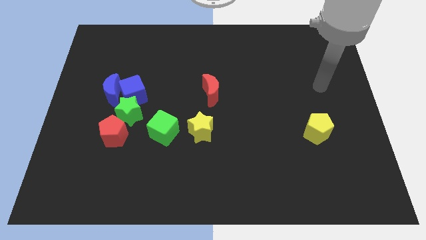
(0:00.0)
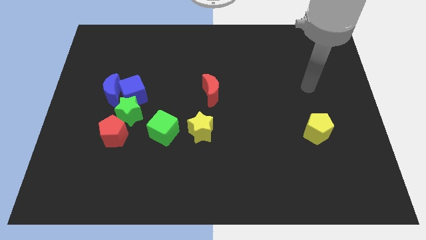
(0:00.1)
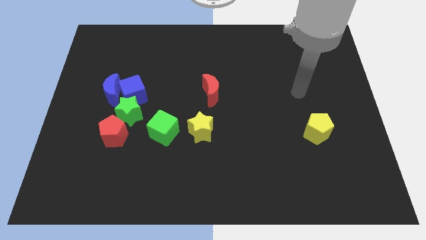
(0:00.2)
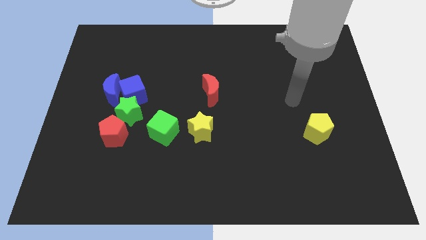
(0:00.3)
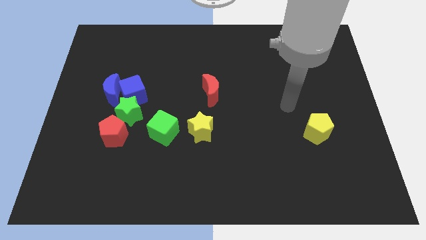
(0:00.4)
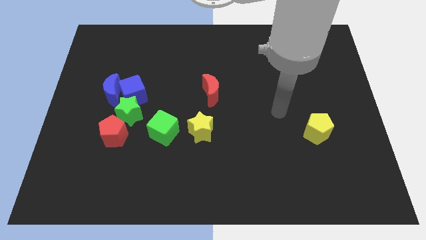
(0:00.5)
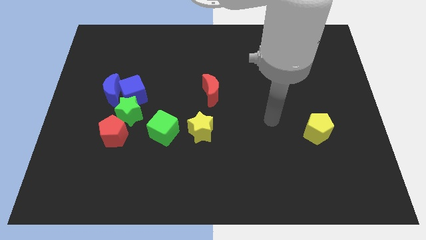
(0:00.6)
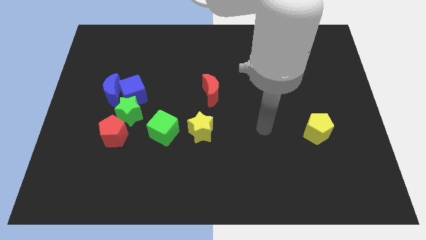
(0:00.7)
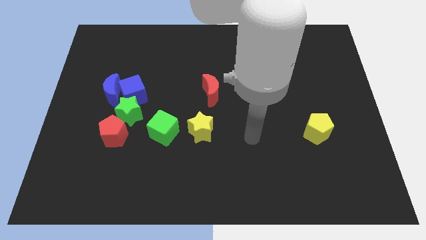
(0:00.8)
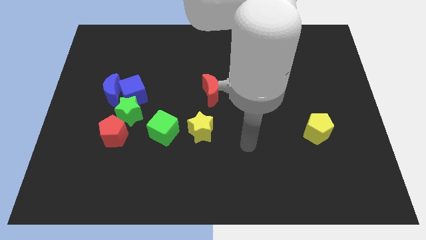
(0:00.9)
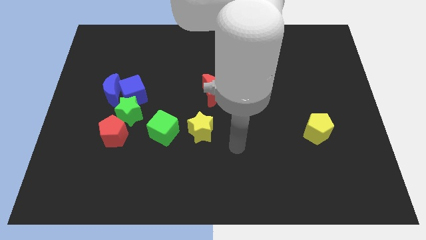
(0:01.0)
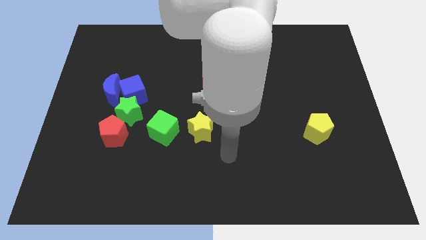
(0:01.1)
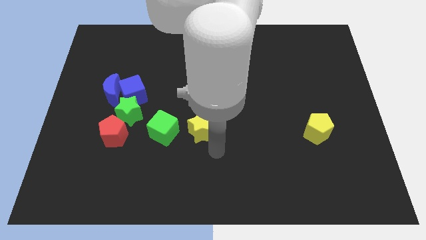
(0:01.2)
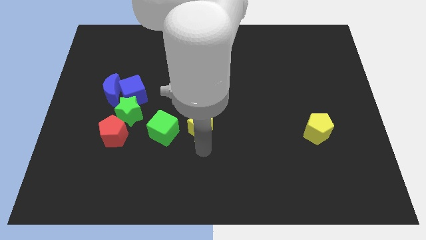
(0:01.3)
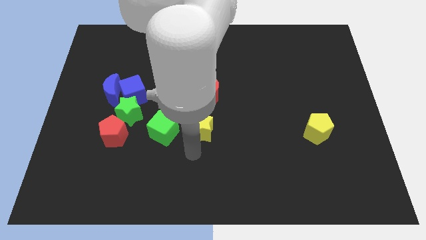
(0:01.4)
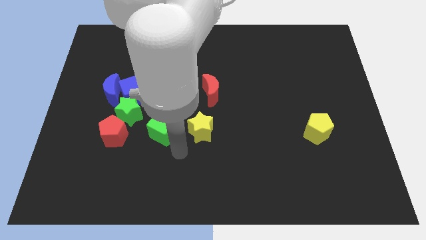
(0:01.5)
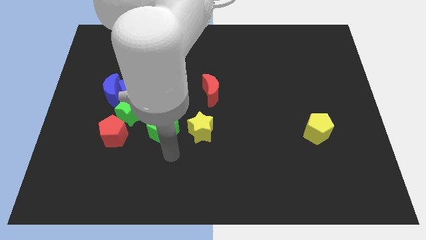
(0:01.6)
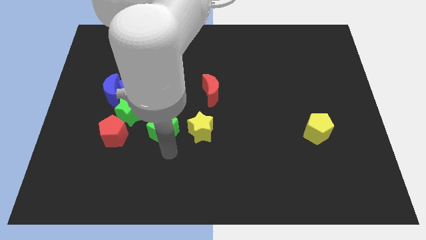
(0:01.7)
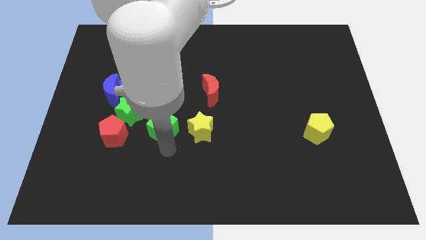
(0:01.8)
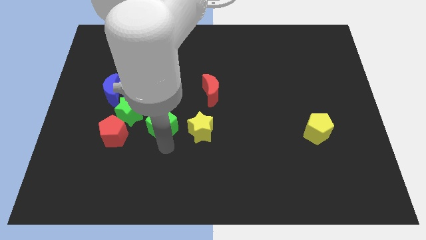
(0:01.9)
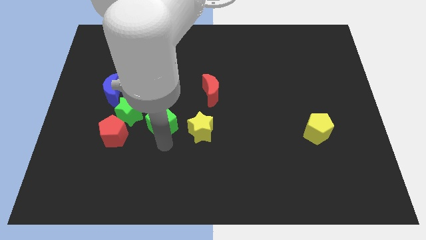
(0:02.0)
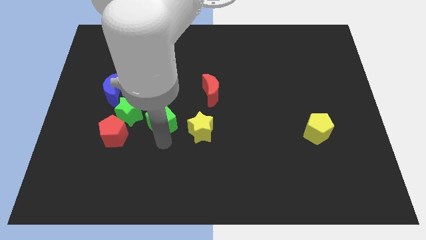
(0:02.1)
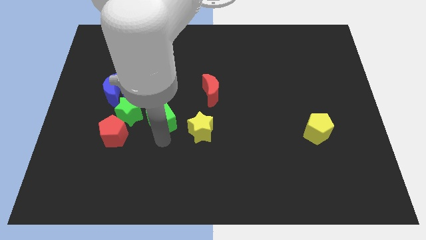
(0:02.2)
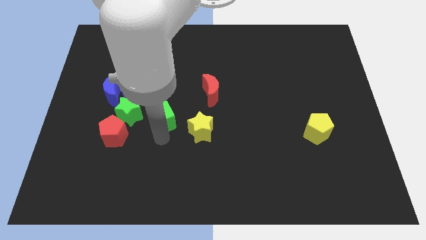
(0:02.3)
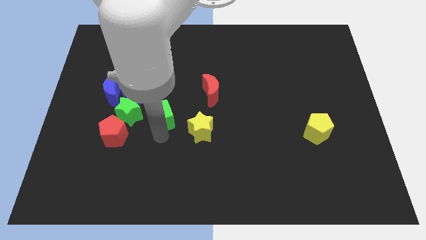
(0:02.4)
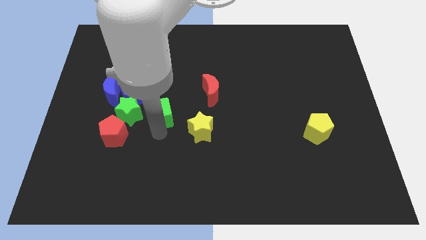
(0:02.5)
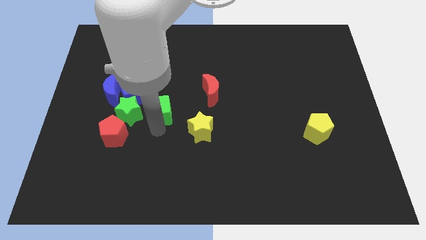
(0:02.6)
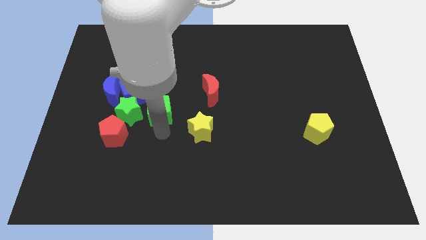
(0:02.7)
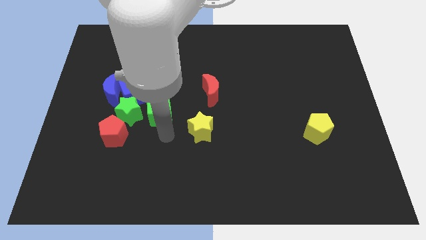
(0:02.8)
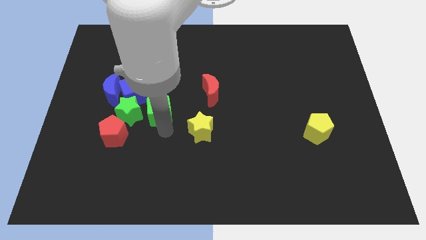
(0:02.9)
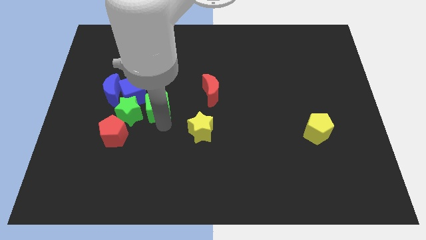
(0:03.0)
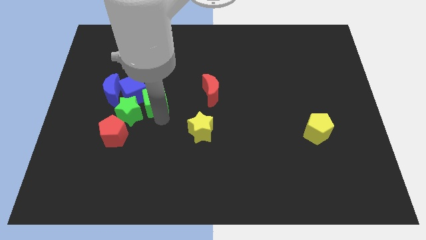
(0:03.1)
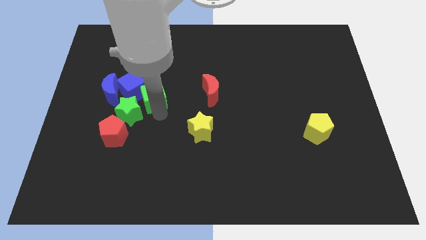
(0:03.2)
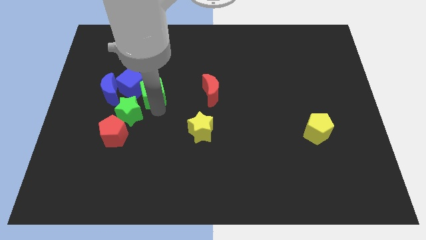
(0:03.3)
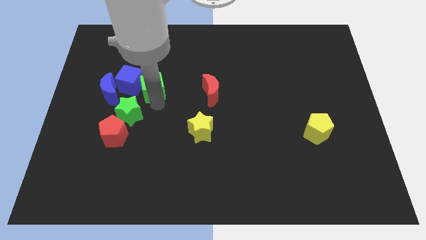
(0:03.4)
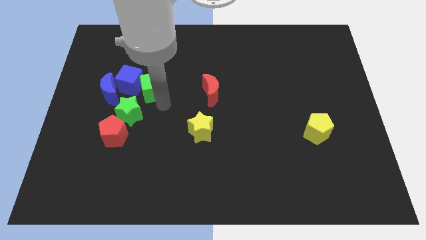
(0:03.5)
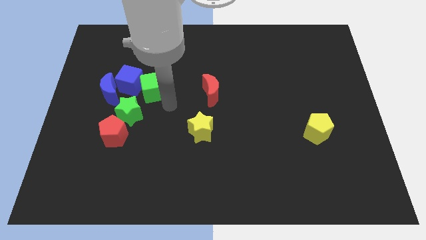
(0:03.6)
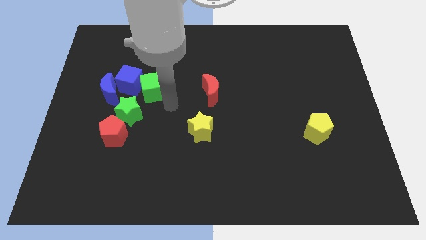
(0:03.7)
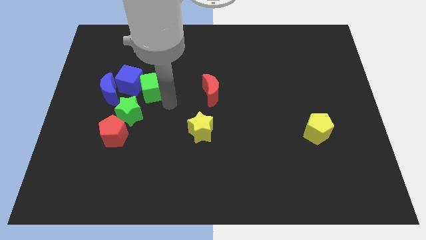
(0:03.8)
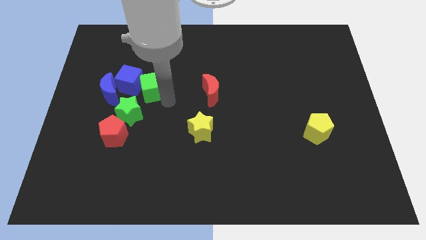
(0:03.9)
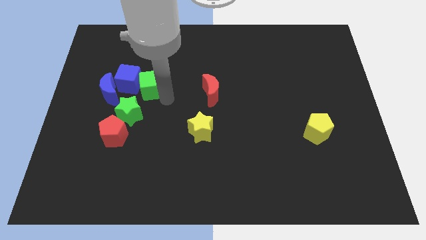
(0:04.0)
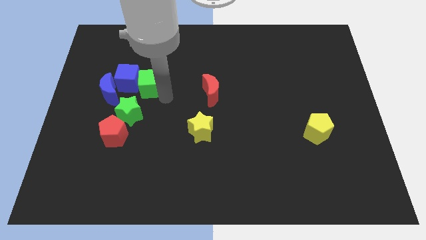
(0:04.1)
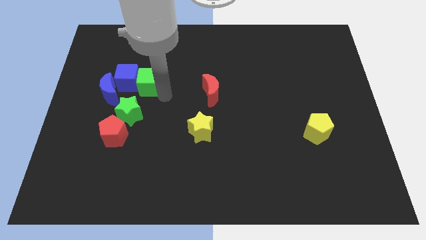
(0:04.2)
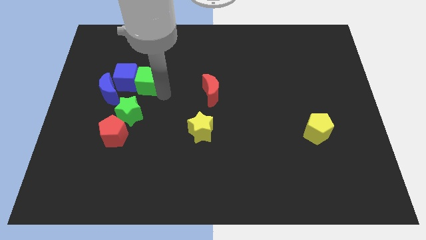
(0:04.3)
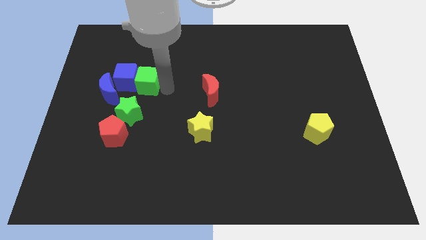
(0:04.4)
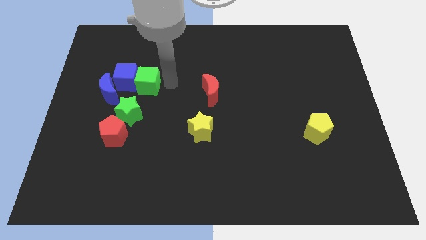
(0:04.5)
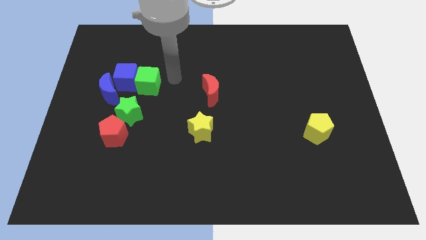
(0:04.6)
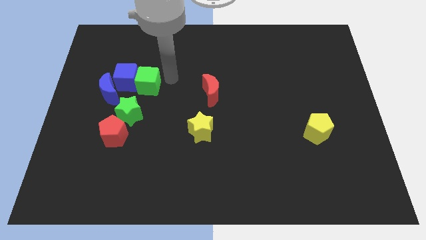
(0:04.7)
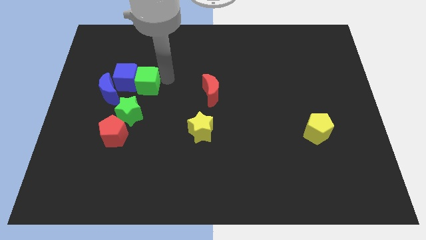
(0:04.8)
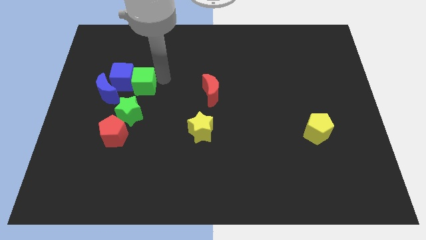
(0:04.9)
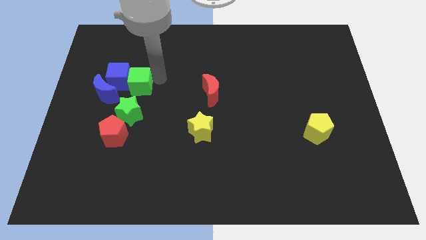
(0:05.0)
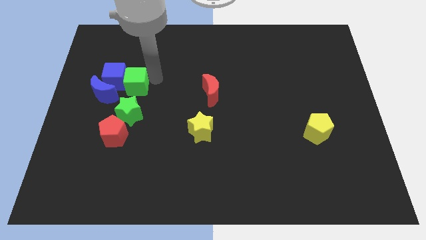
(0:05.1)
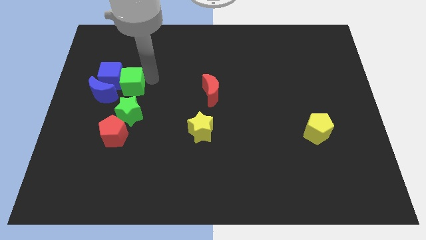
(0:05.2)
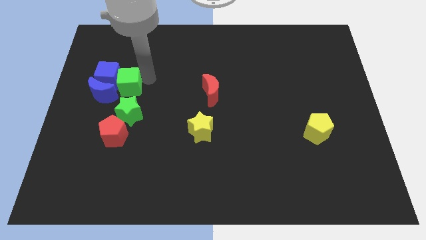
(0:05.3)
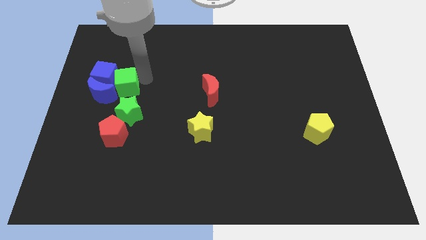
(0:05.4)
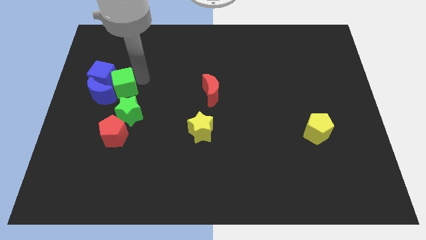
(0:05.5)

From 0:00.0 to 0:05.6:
put the green cube towards the blue moon

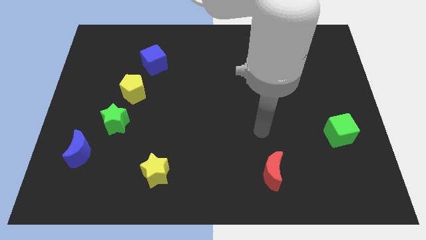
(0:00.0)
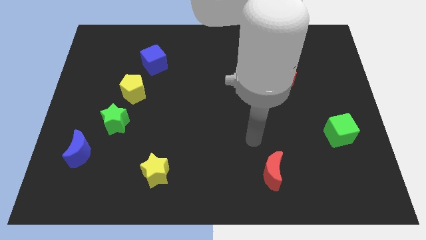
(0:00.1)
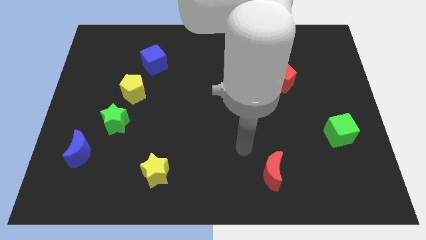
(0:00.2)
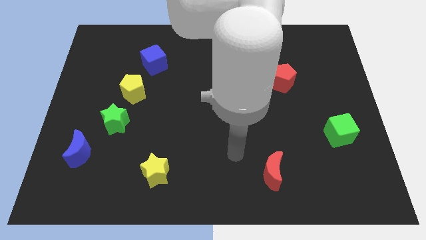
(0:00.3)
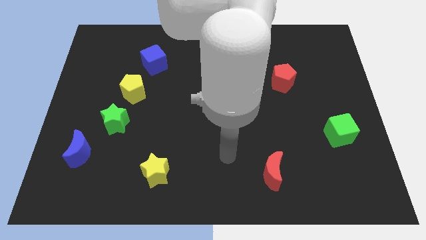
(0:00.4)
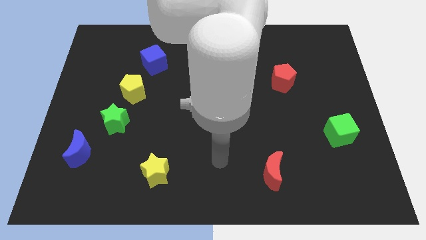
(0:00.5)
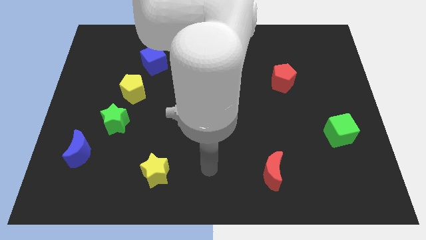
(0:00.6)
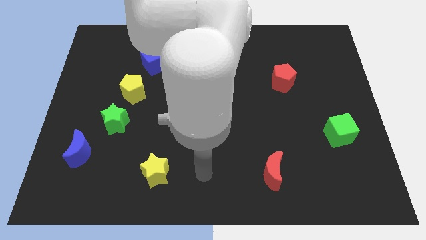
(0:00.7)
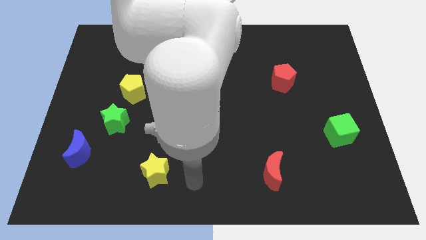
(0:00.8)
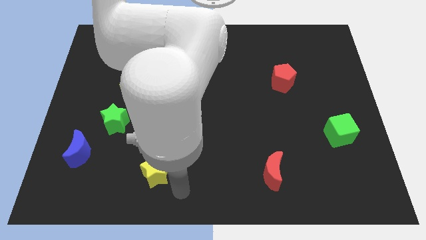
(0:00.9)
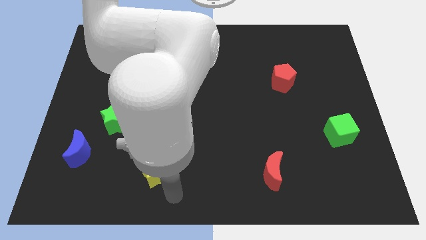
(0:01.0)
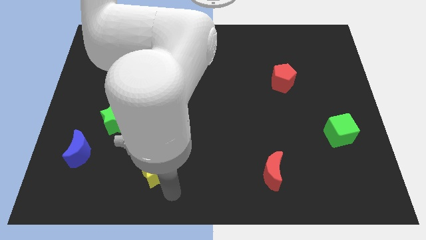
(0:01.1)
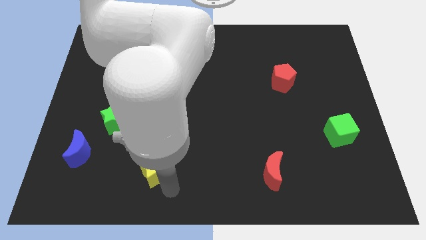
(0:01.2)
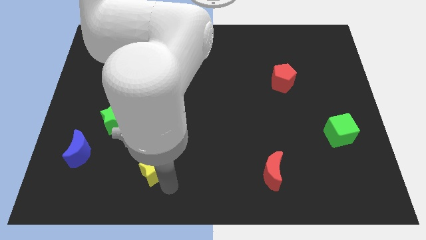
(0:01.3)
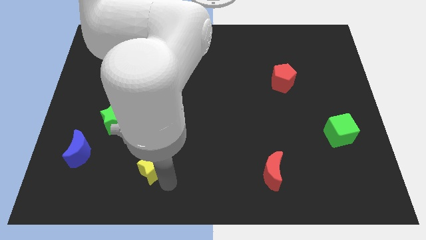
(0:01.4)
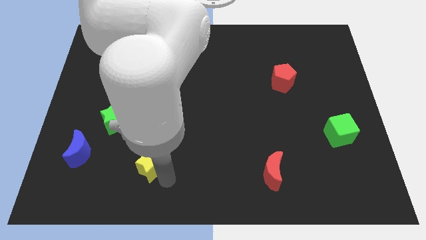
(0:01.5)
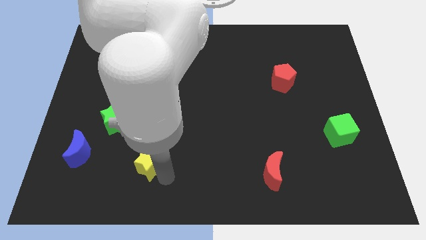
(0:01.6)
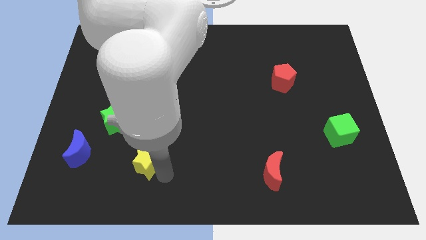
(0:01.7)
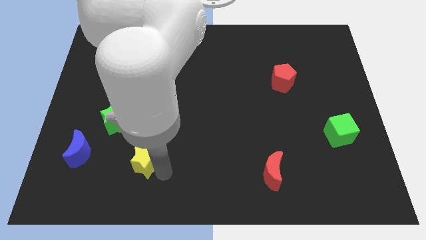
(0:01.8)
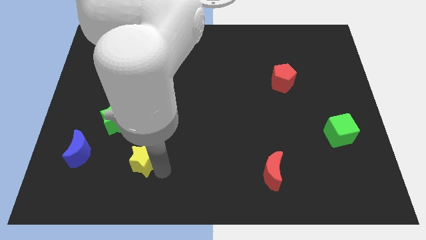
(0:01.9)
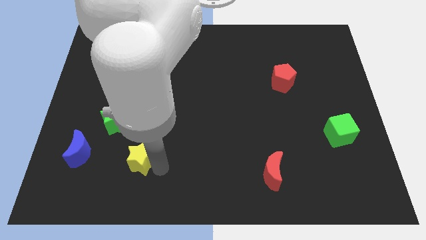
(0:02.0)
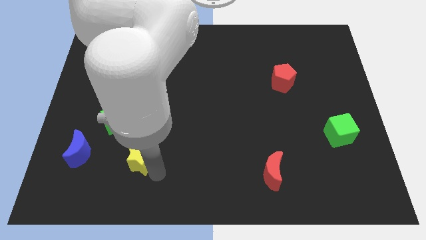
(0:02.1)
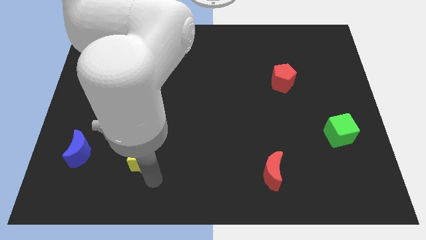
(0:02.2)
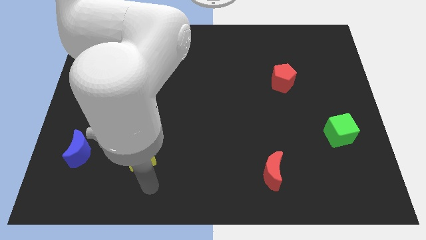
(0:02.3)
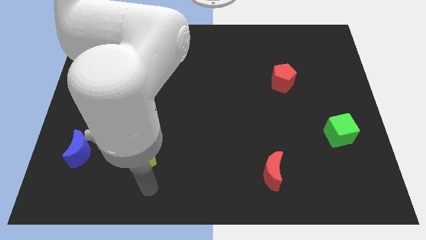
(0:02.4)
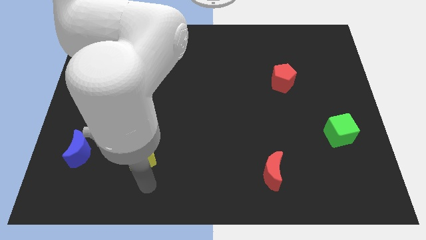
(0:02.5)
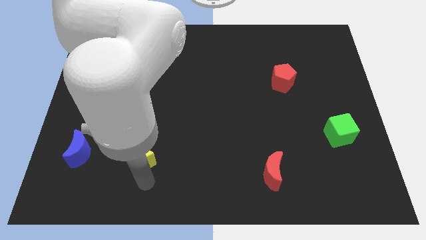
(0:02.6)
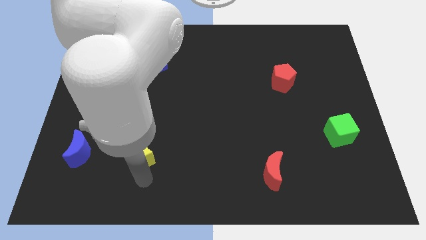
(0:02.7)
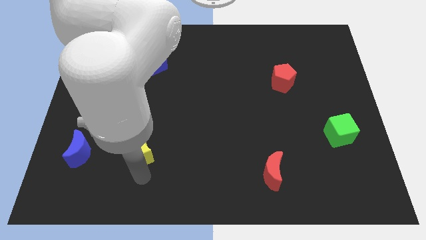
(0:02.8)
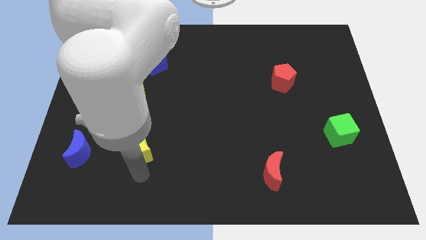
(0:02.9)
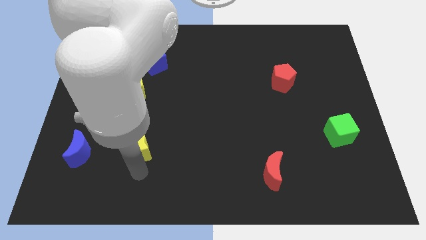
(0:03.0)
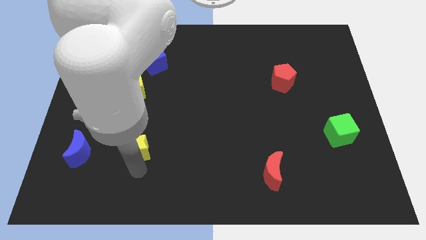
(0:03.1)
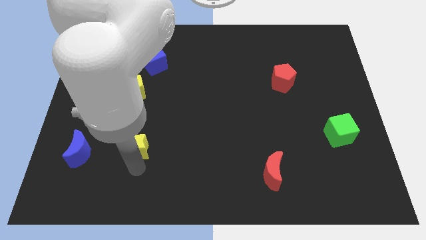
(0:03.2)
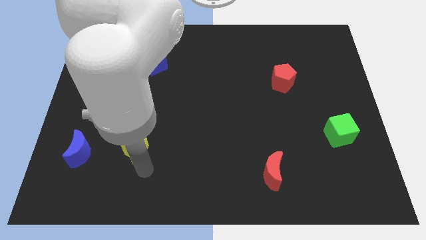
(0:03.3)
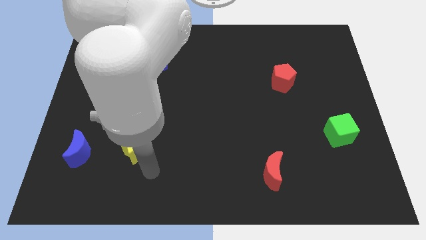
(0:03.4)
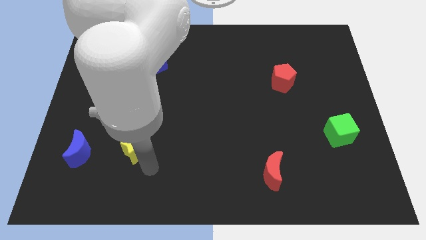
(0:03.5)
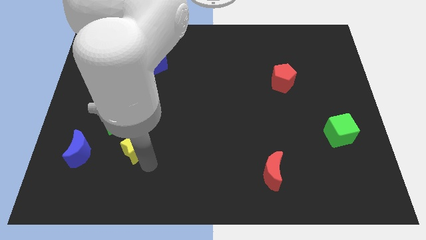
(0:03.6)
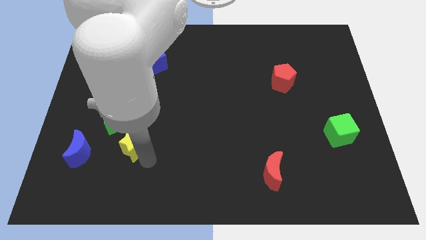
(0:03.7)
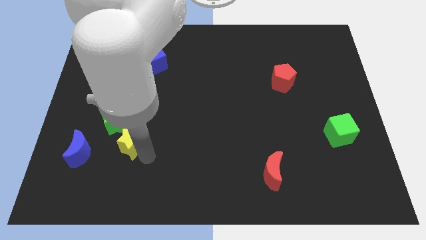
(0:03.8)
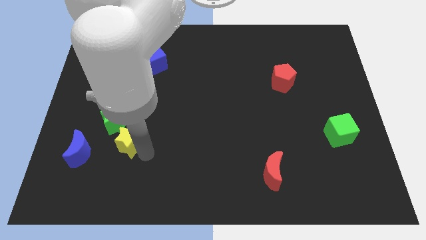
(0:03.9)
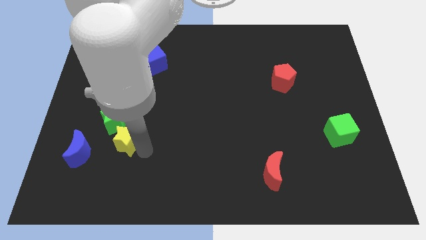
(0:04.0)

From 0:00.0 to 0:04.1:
slide the yellow star next to the green star
